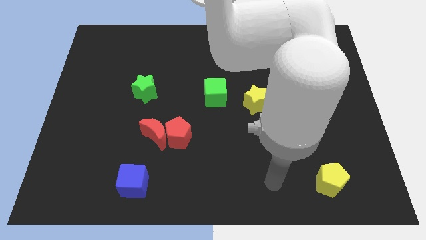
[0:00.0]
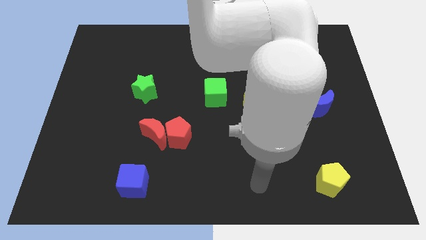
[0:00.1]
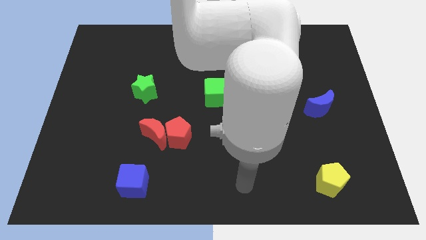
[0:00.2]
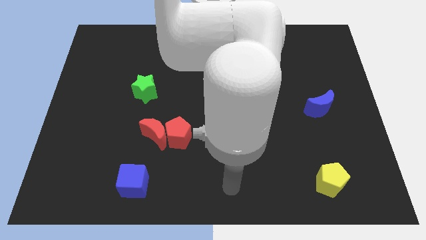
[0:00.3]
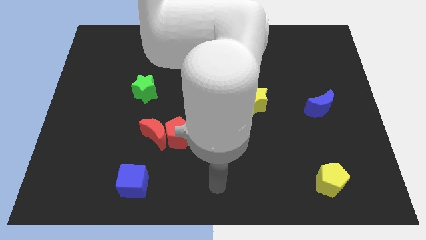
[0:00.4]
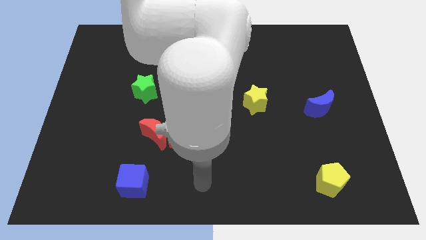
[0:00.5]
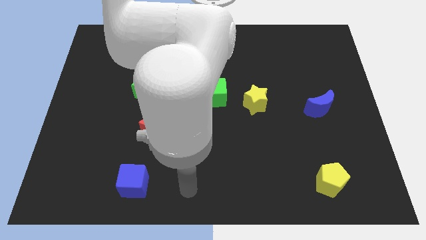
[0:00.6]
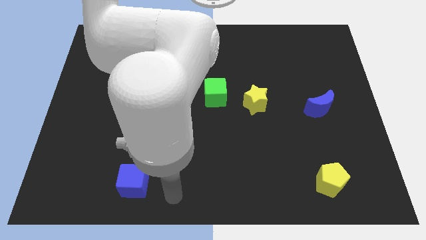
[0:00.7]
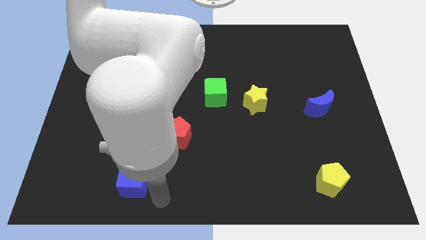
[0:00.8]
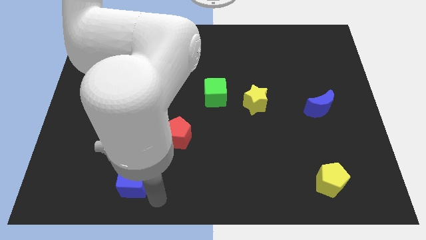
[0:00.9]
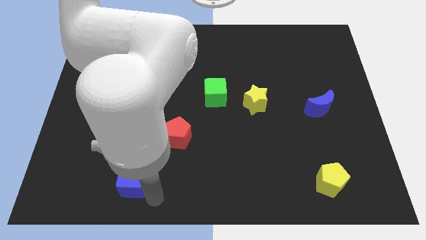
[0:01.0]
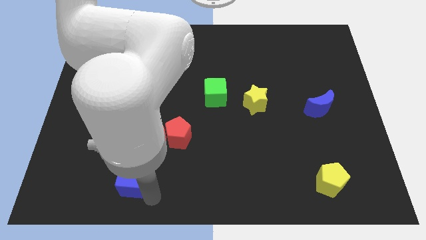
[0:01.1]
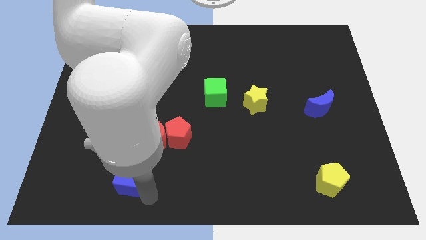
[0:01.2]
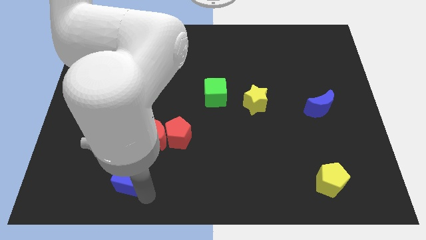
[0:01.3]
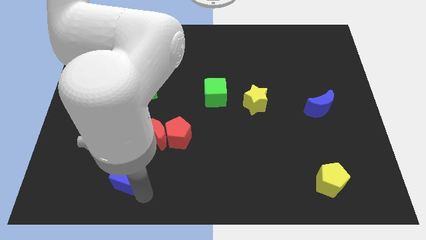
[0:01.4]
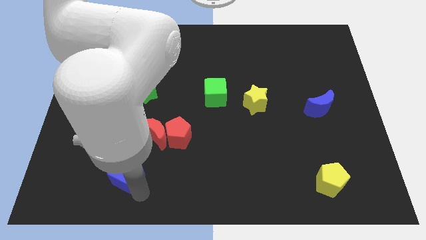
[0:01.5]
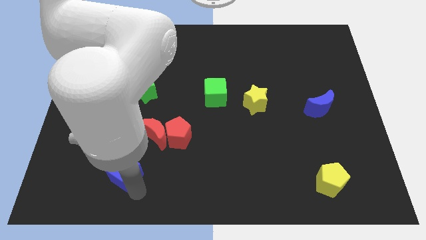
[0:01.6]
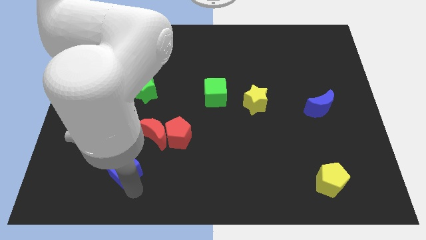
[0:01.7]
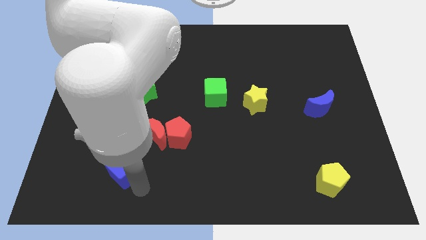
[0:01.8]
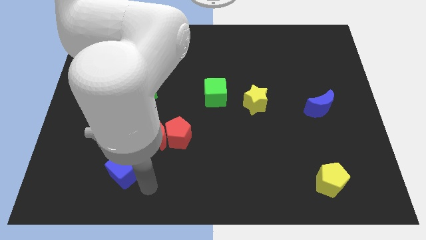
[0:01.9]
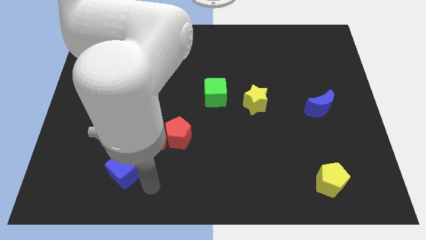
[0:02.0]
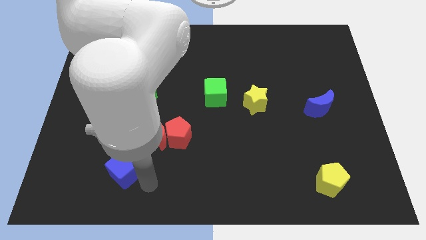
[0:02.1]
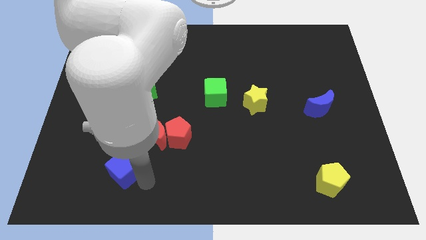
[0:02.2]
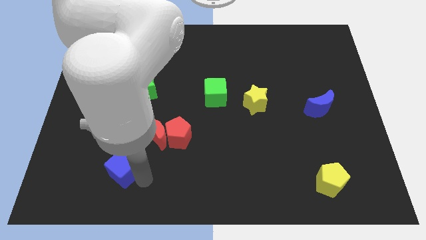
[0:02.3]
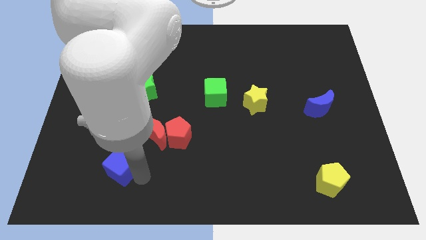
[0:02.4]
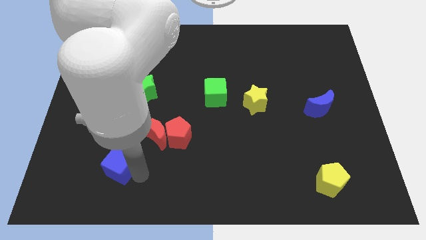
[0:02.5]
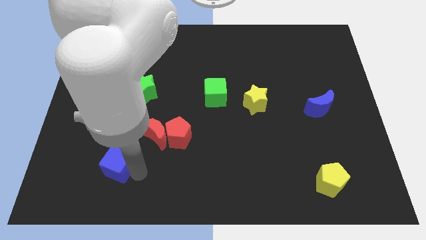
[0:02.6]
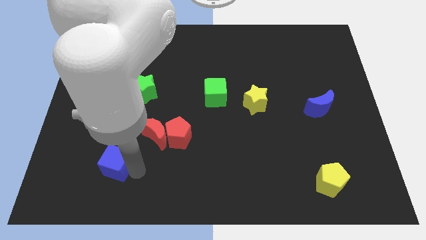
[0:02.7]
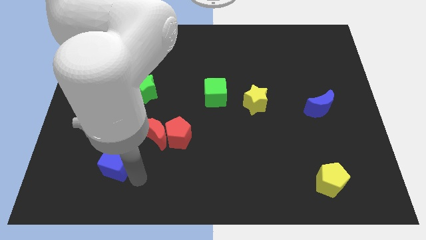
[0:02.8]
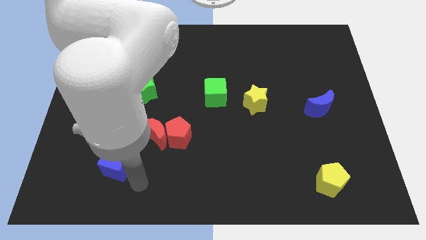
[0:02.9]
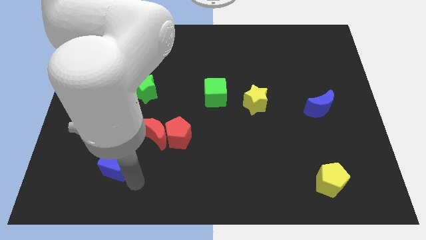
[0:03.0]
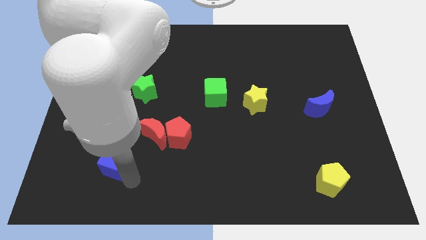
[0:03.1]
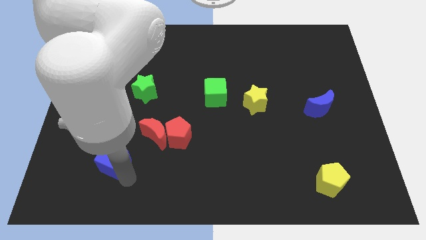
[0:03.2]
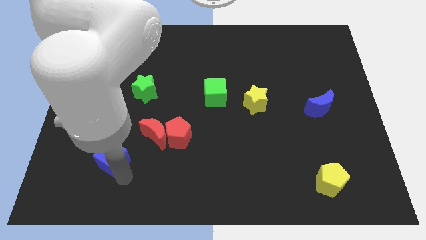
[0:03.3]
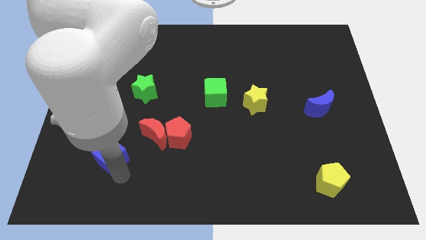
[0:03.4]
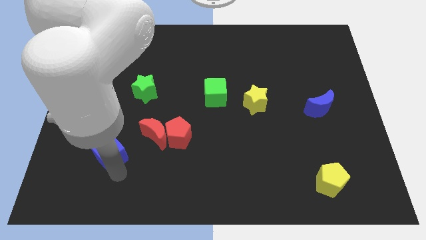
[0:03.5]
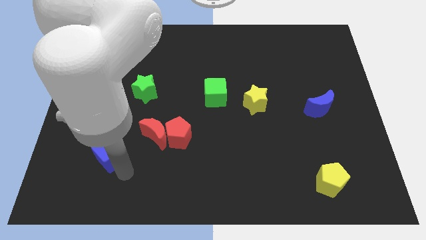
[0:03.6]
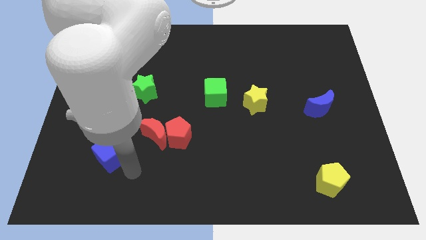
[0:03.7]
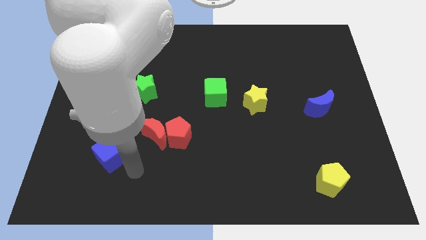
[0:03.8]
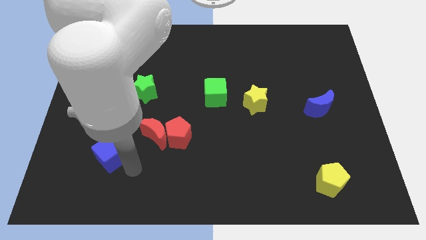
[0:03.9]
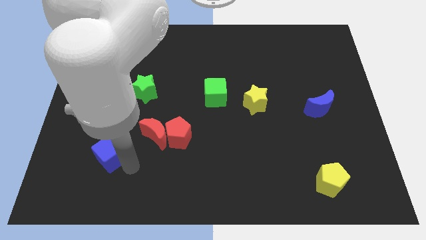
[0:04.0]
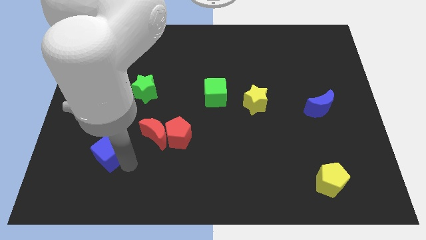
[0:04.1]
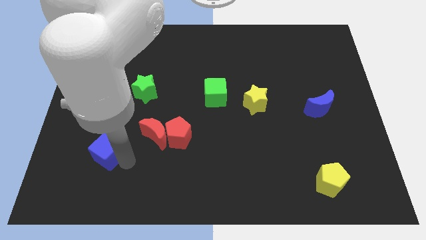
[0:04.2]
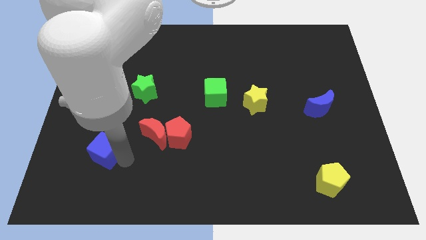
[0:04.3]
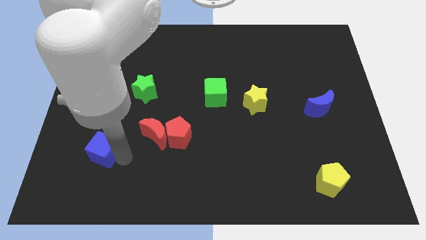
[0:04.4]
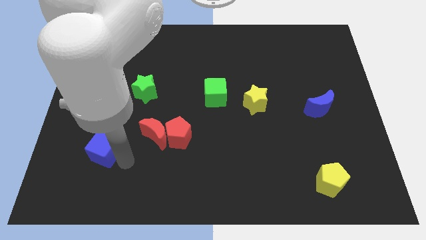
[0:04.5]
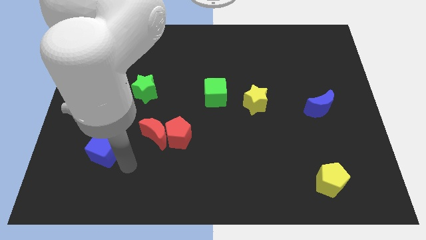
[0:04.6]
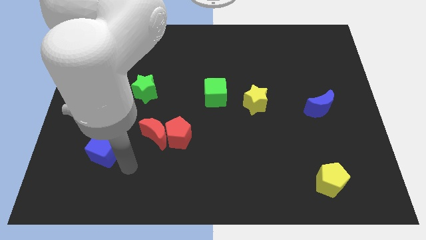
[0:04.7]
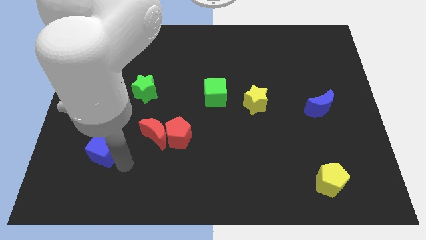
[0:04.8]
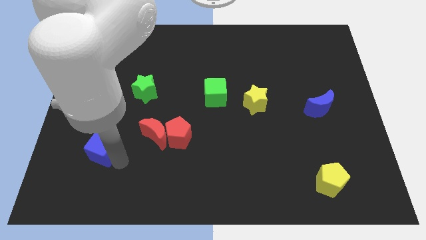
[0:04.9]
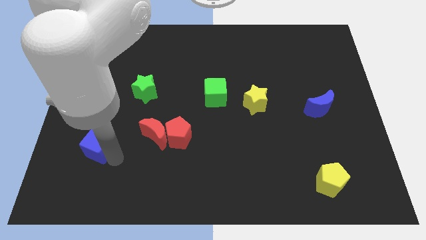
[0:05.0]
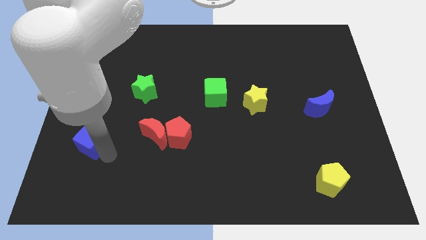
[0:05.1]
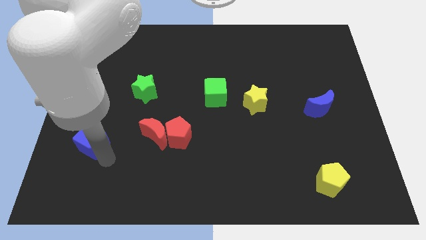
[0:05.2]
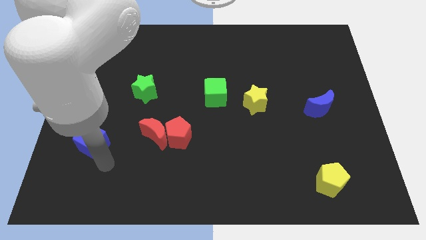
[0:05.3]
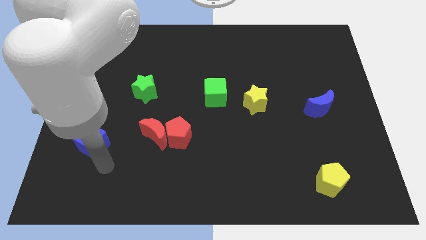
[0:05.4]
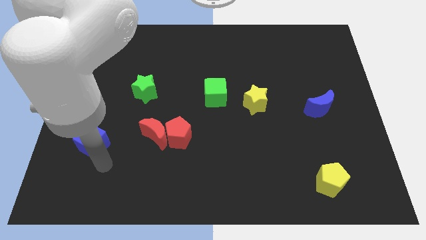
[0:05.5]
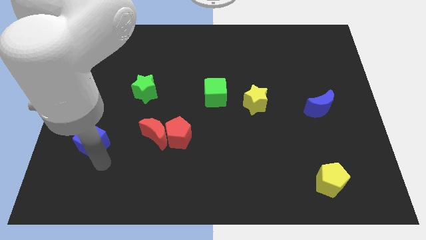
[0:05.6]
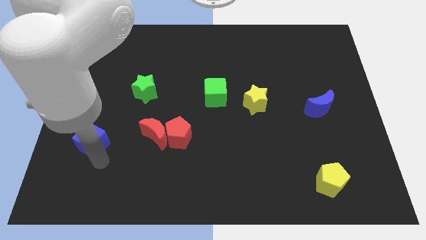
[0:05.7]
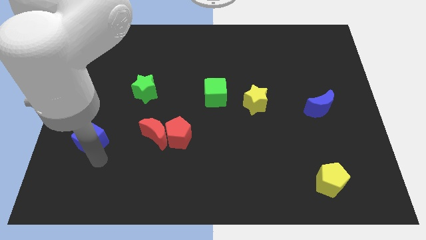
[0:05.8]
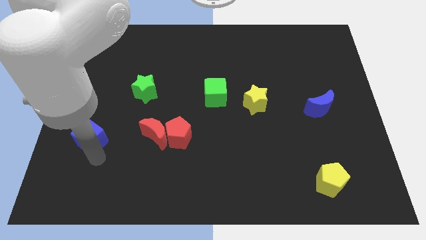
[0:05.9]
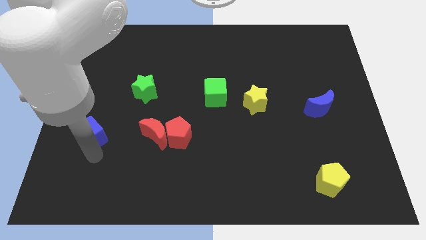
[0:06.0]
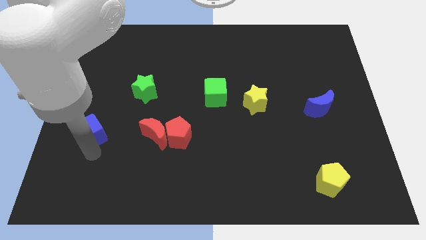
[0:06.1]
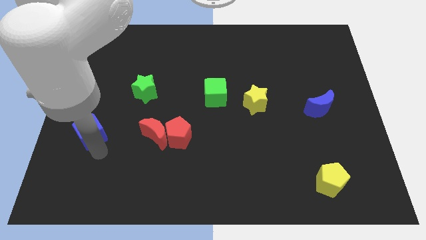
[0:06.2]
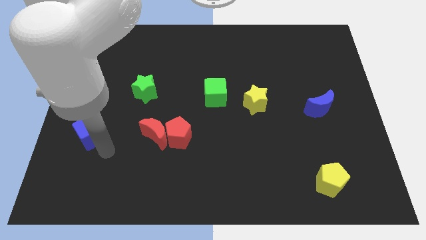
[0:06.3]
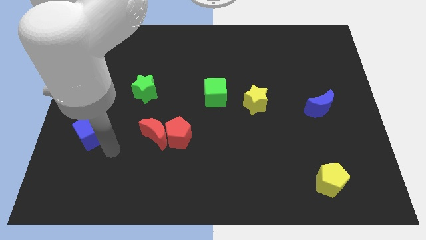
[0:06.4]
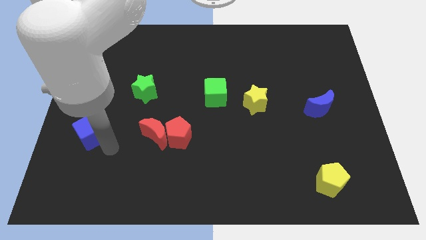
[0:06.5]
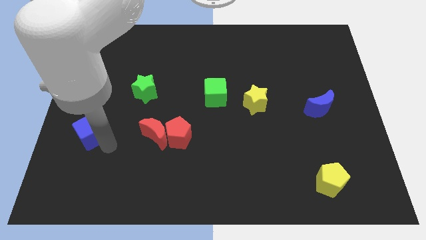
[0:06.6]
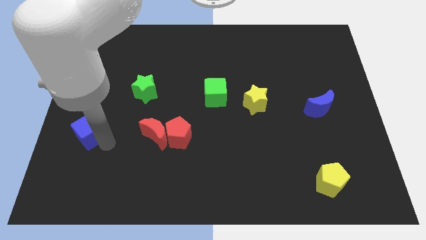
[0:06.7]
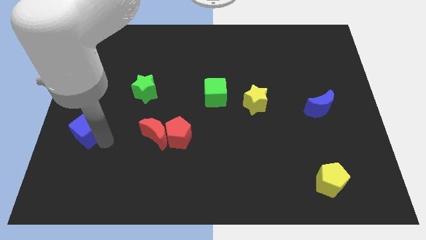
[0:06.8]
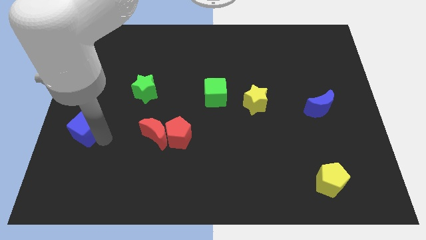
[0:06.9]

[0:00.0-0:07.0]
put the blue cube to the center left

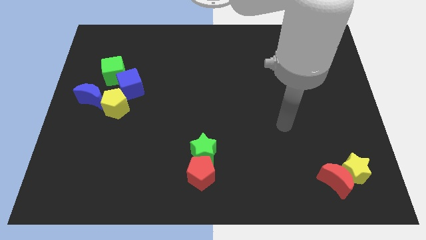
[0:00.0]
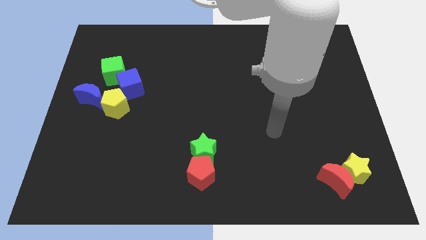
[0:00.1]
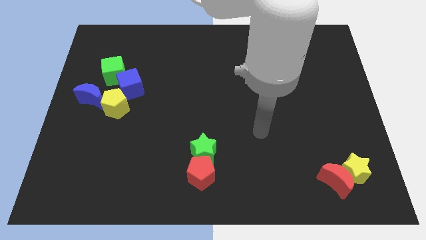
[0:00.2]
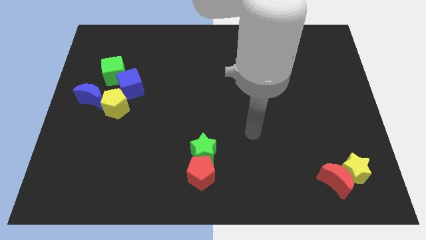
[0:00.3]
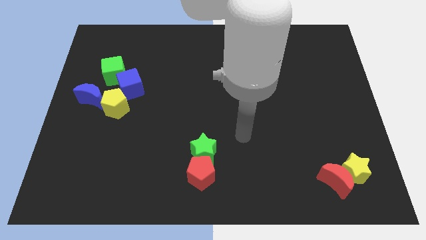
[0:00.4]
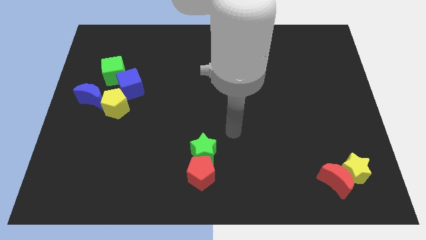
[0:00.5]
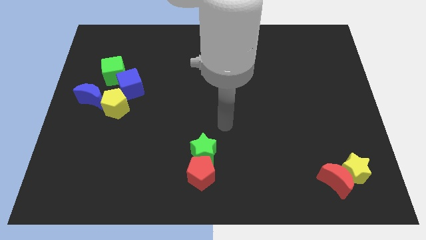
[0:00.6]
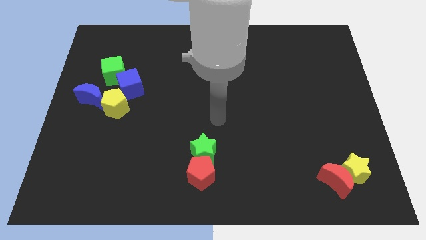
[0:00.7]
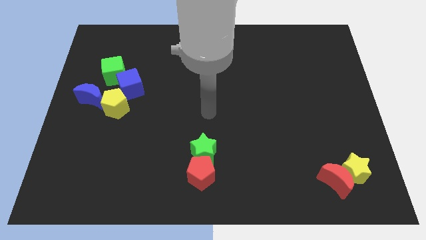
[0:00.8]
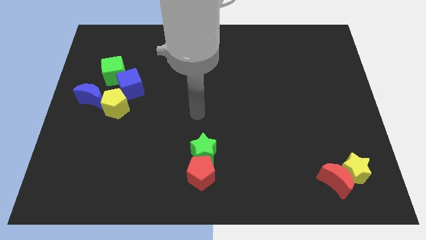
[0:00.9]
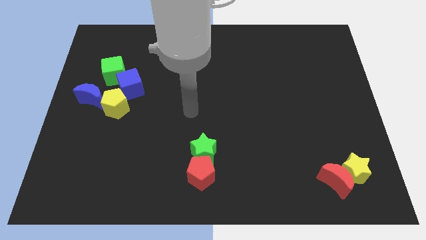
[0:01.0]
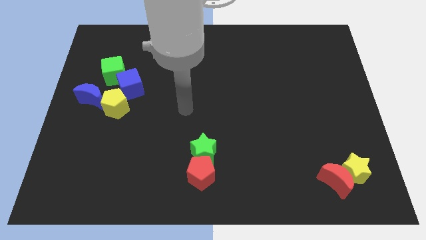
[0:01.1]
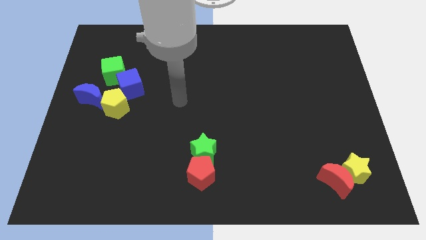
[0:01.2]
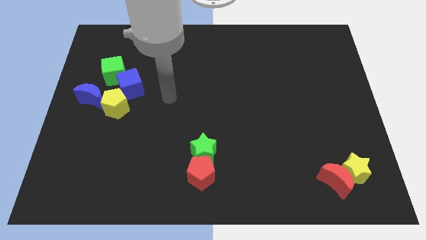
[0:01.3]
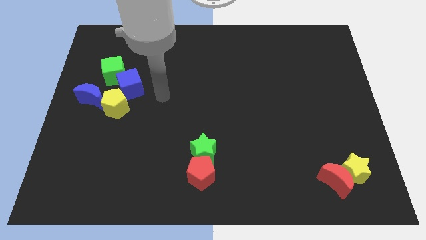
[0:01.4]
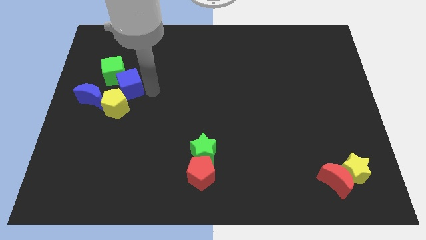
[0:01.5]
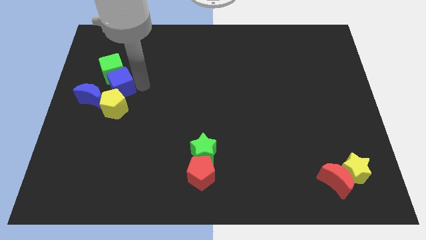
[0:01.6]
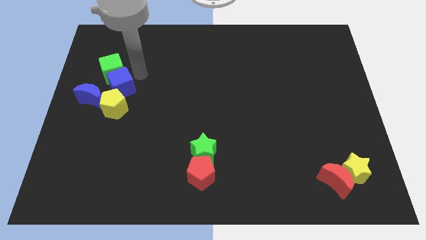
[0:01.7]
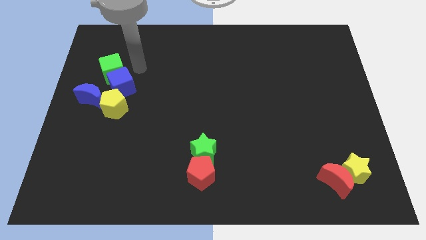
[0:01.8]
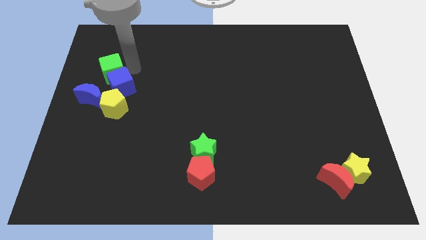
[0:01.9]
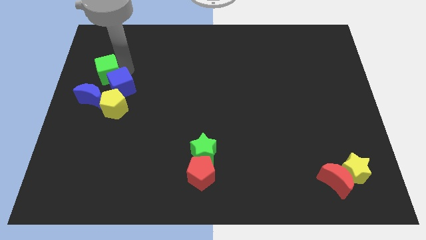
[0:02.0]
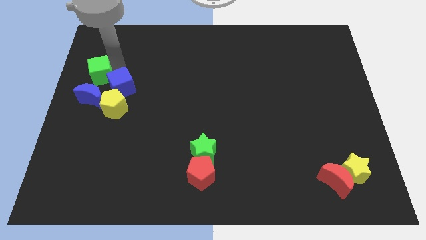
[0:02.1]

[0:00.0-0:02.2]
put the green cube to the center left
